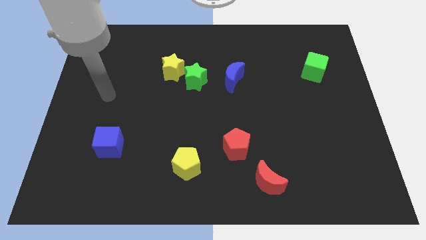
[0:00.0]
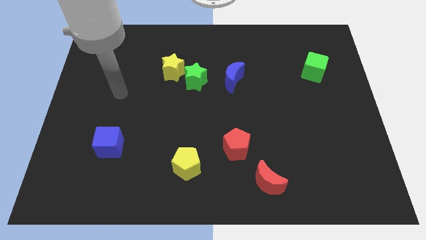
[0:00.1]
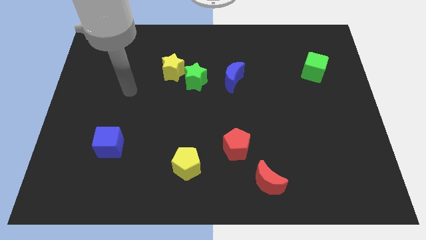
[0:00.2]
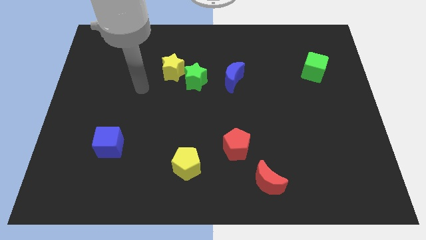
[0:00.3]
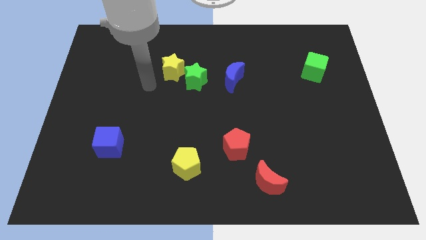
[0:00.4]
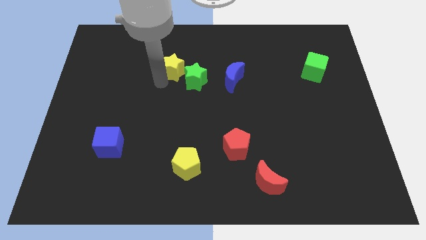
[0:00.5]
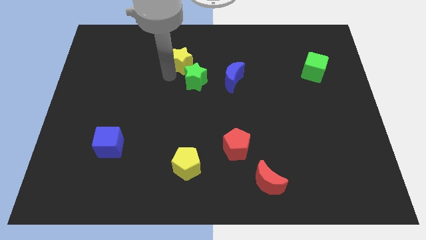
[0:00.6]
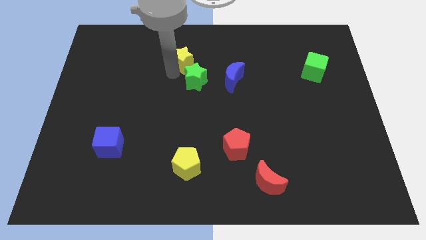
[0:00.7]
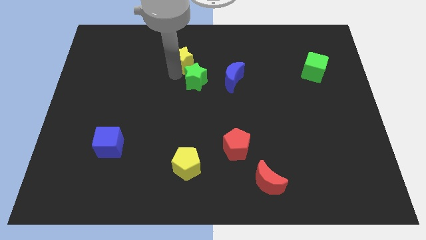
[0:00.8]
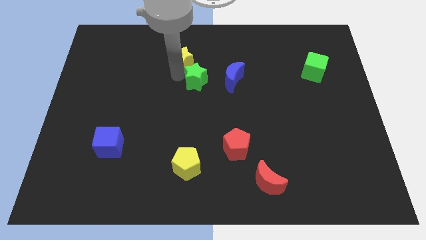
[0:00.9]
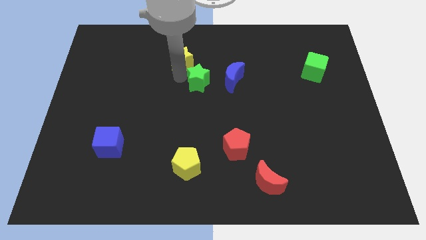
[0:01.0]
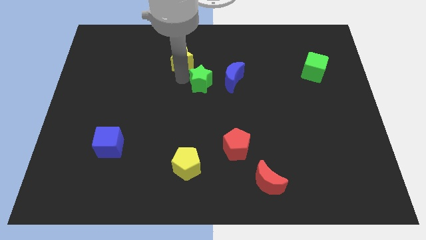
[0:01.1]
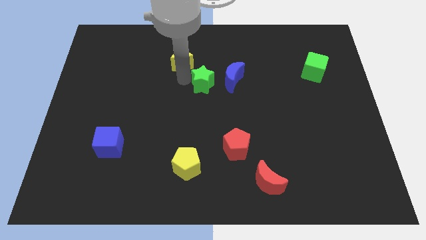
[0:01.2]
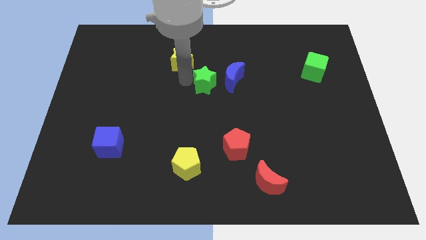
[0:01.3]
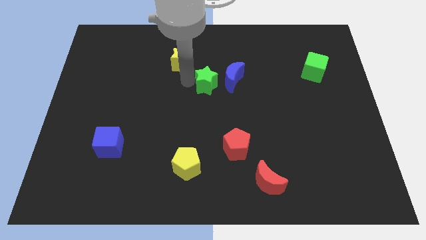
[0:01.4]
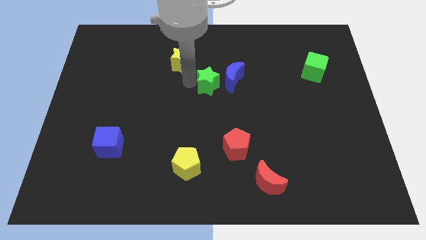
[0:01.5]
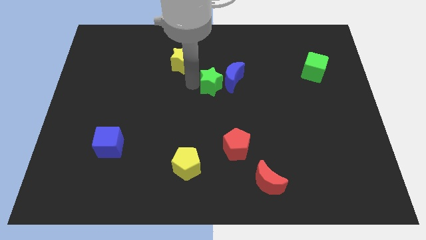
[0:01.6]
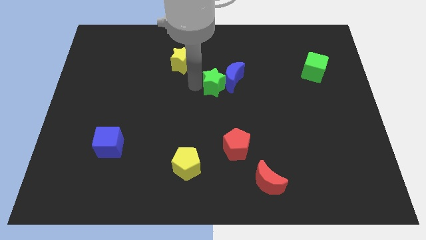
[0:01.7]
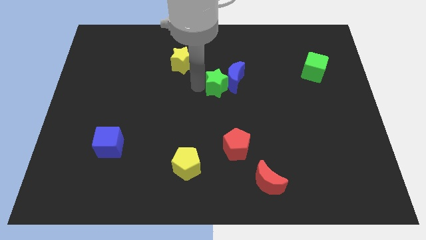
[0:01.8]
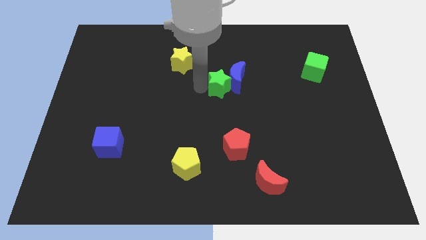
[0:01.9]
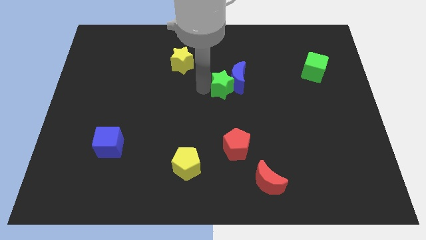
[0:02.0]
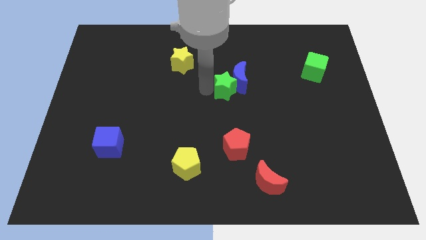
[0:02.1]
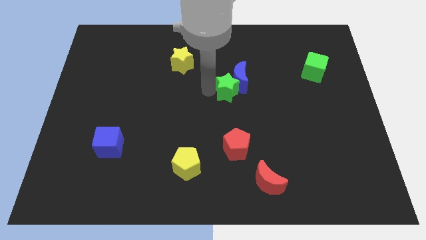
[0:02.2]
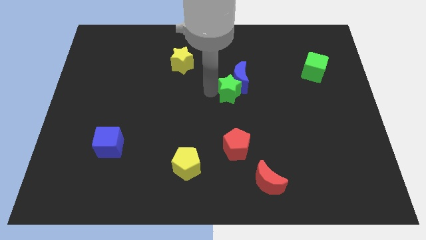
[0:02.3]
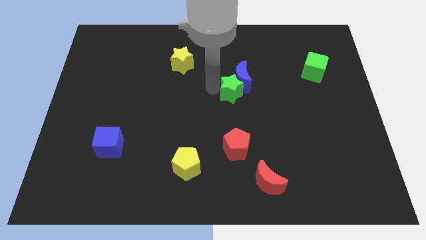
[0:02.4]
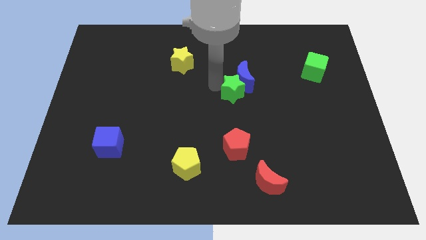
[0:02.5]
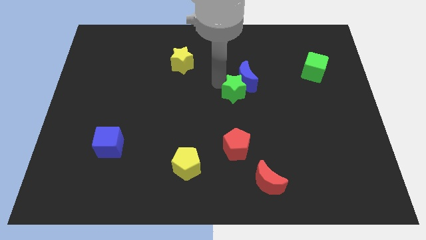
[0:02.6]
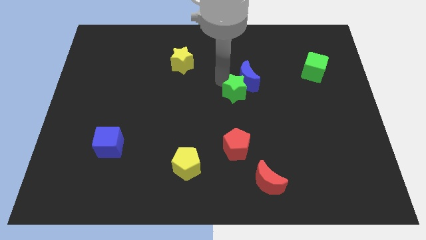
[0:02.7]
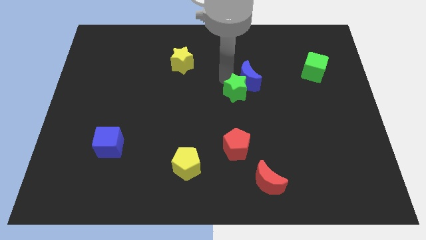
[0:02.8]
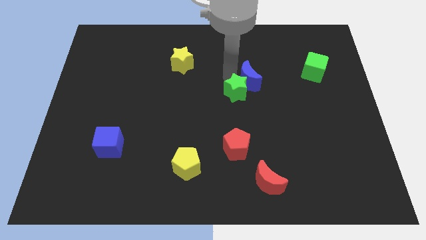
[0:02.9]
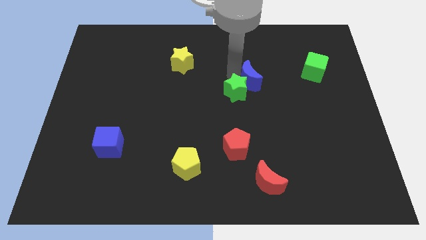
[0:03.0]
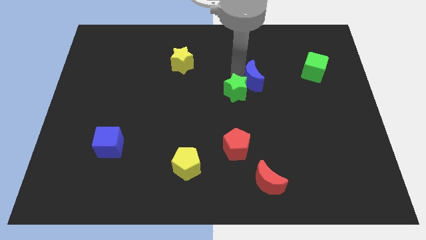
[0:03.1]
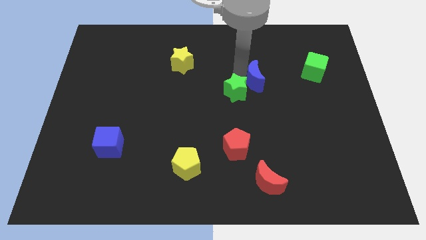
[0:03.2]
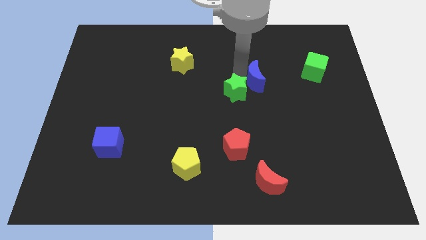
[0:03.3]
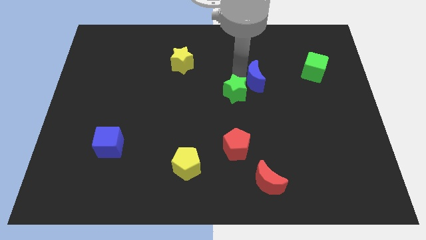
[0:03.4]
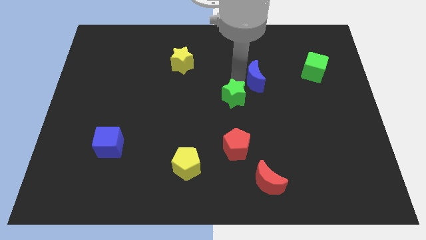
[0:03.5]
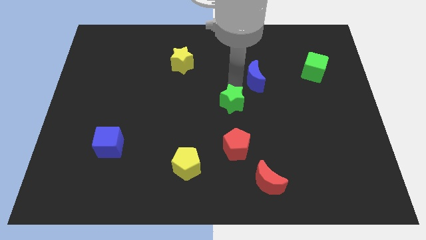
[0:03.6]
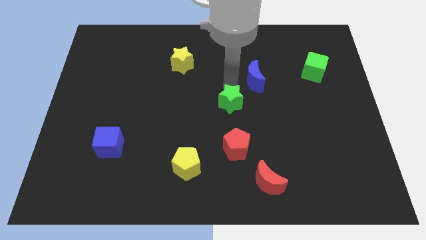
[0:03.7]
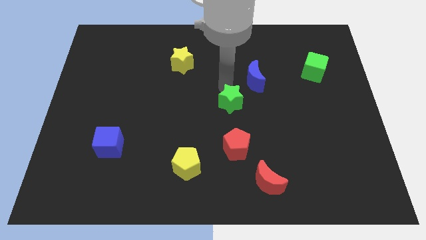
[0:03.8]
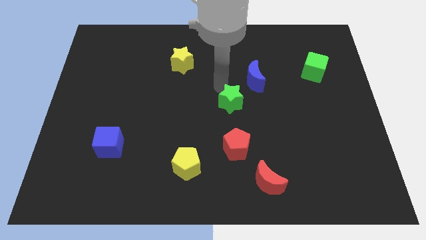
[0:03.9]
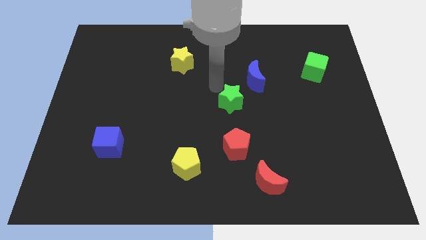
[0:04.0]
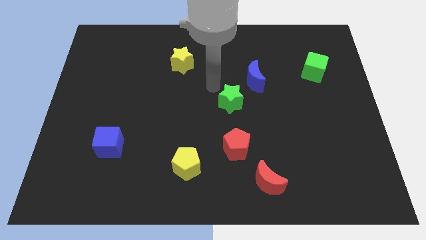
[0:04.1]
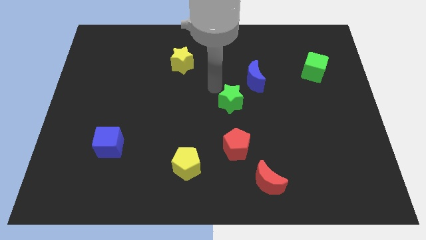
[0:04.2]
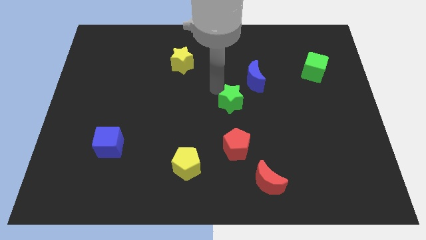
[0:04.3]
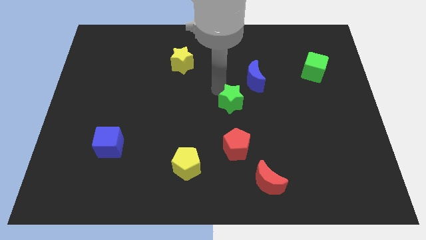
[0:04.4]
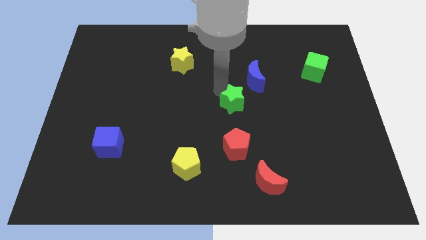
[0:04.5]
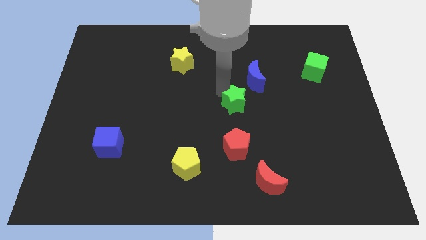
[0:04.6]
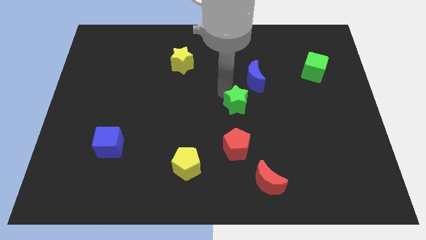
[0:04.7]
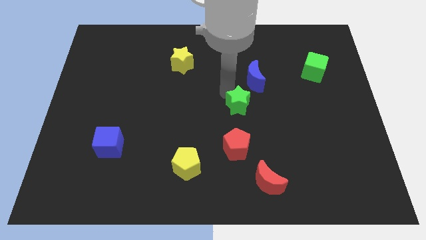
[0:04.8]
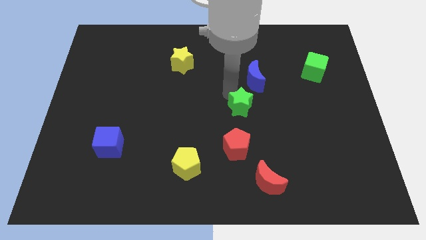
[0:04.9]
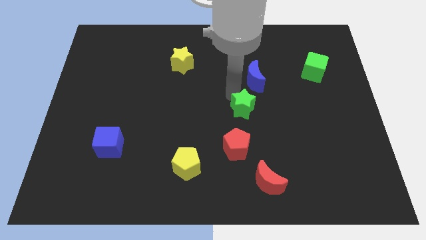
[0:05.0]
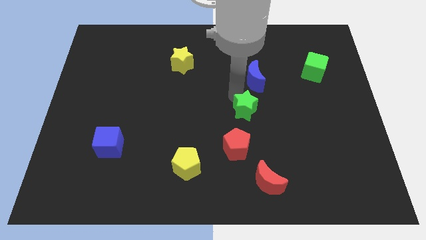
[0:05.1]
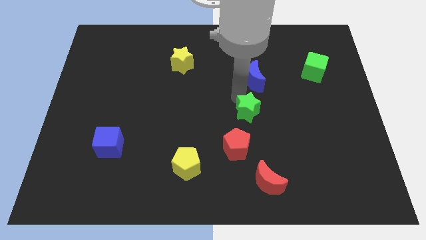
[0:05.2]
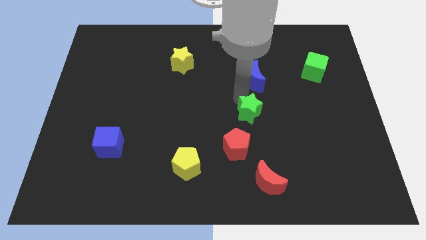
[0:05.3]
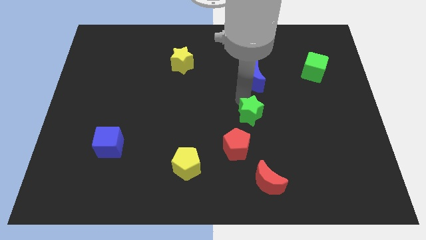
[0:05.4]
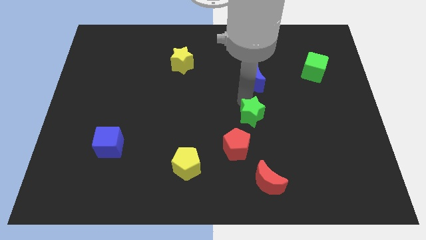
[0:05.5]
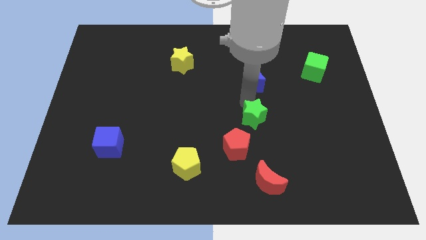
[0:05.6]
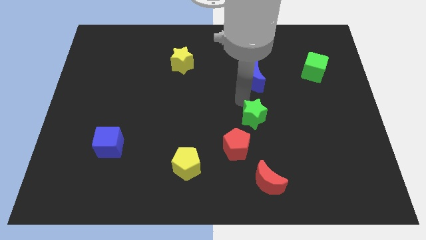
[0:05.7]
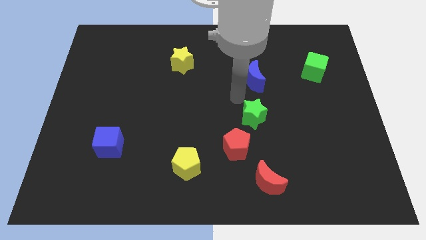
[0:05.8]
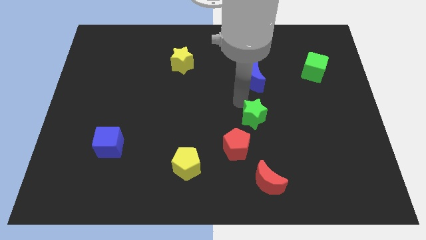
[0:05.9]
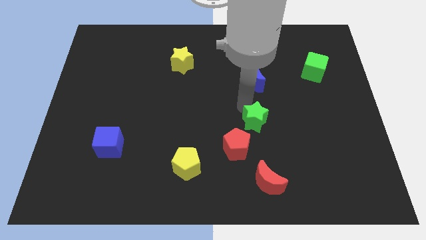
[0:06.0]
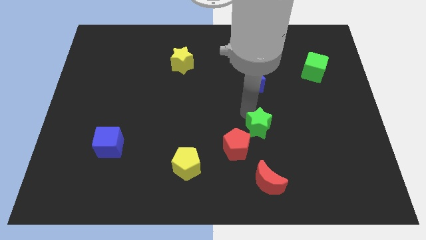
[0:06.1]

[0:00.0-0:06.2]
push the green star downwards and then to the right

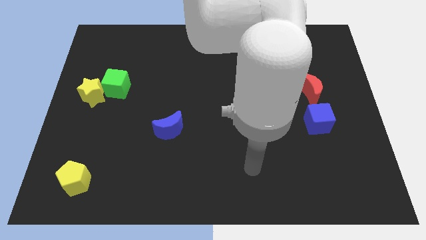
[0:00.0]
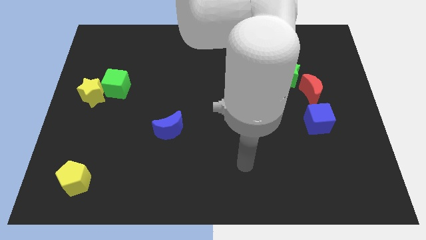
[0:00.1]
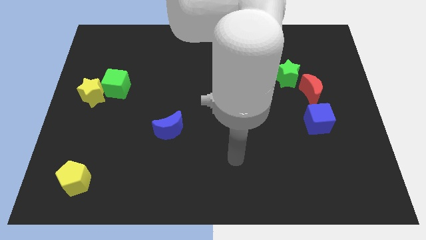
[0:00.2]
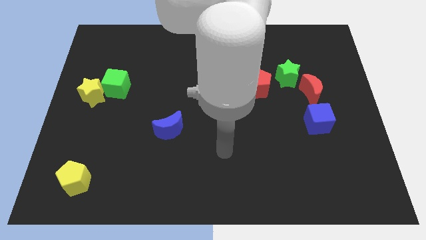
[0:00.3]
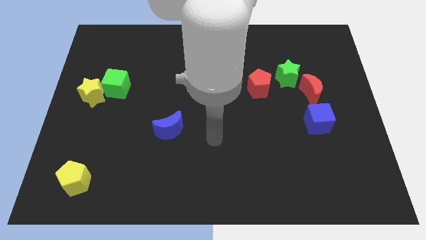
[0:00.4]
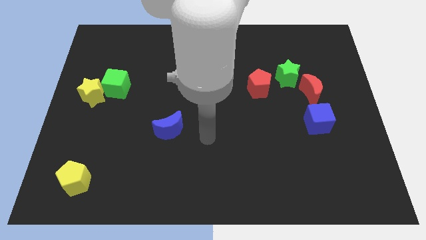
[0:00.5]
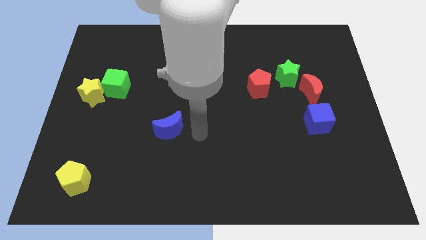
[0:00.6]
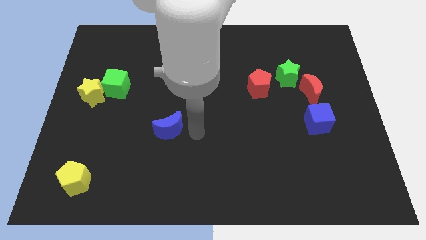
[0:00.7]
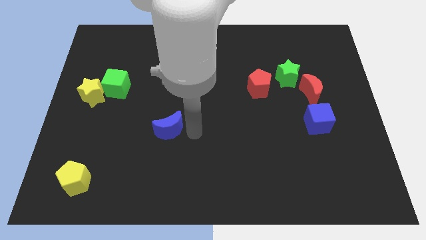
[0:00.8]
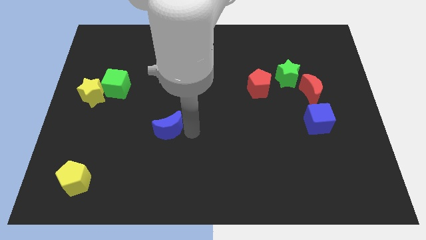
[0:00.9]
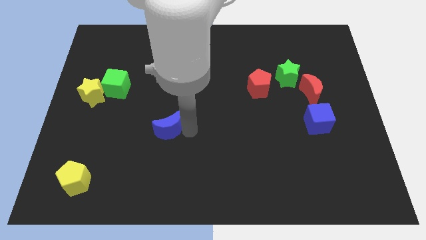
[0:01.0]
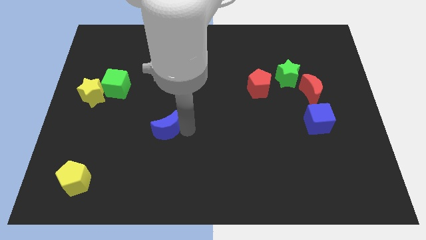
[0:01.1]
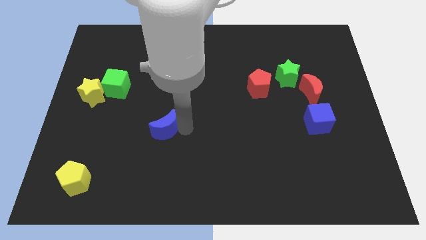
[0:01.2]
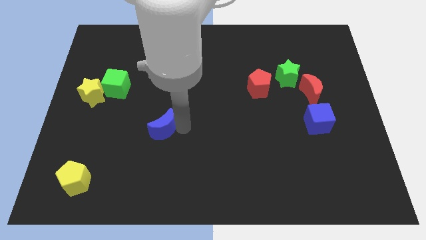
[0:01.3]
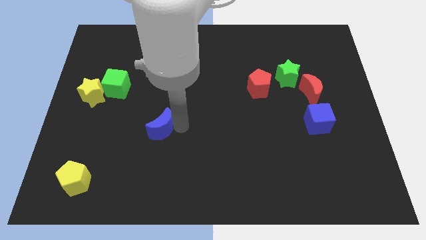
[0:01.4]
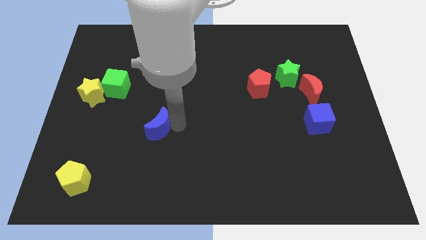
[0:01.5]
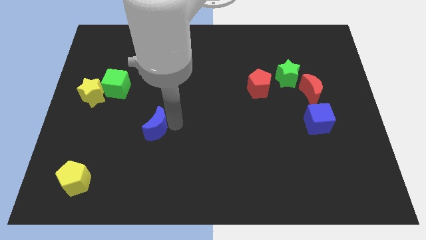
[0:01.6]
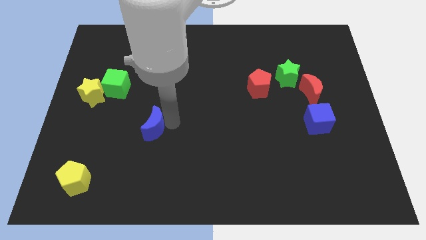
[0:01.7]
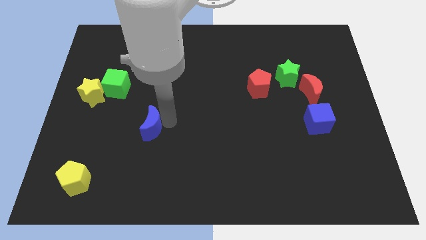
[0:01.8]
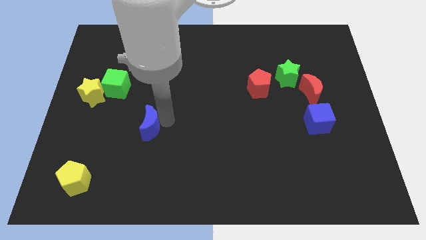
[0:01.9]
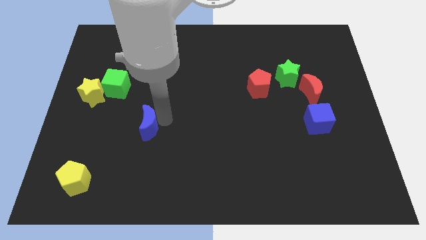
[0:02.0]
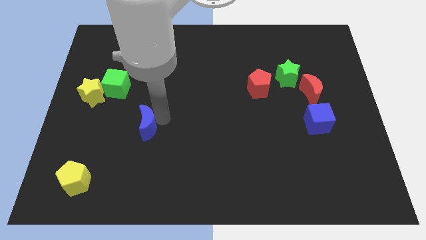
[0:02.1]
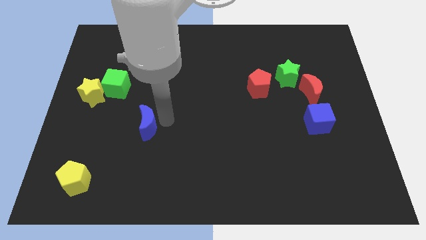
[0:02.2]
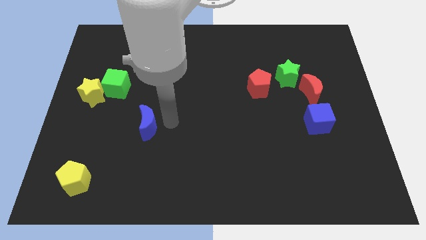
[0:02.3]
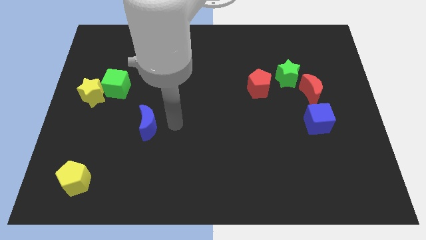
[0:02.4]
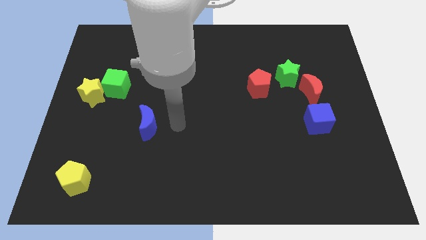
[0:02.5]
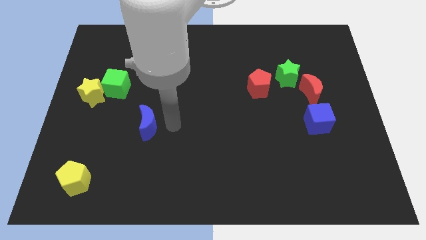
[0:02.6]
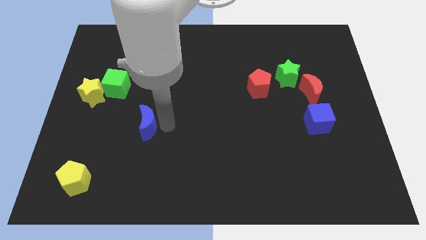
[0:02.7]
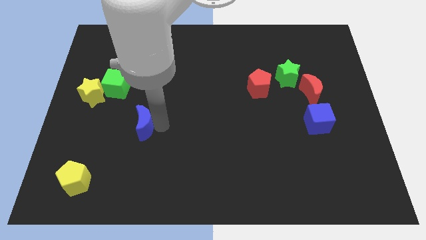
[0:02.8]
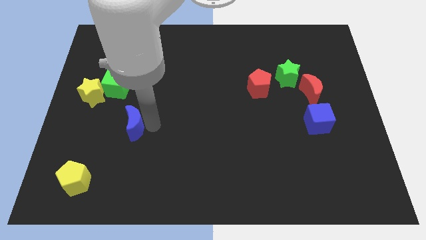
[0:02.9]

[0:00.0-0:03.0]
slide the blue moon left somewhat
